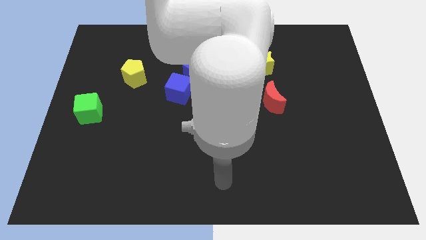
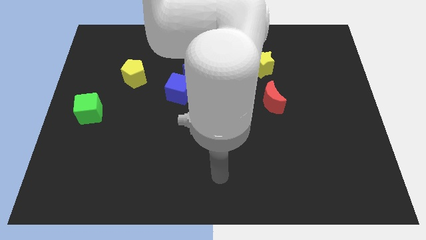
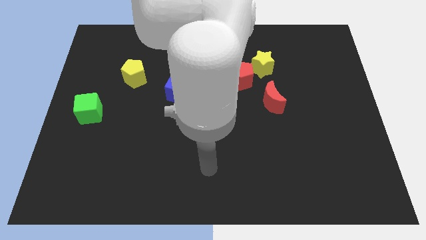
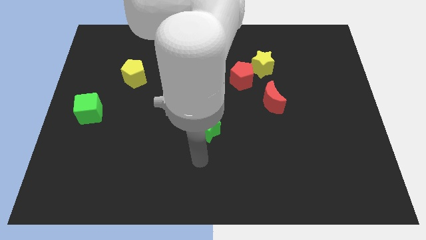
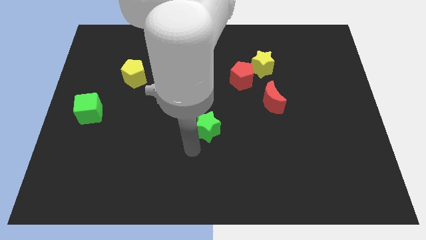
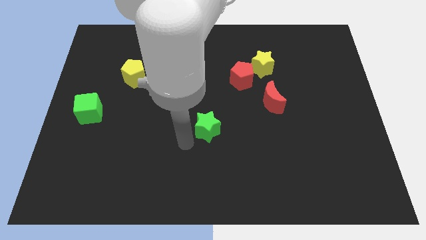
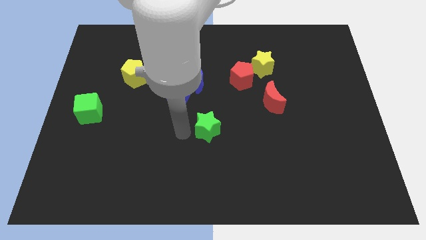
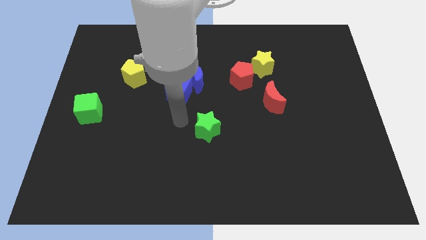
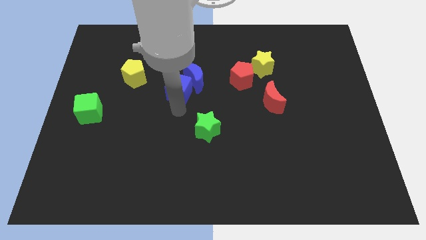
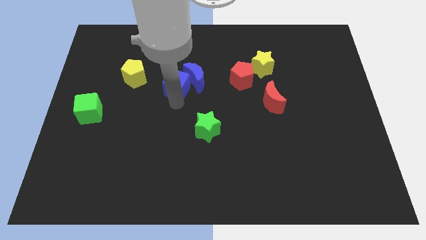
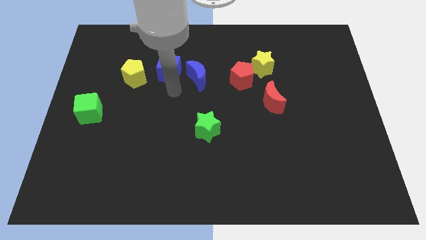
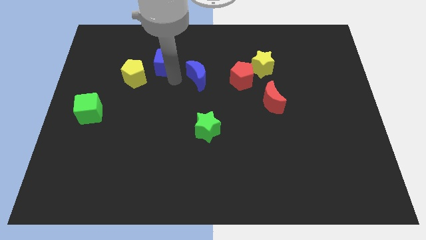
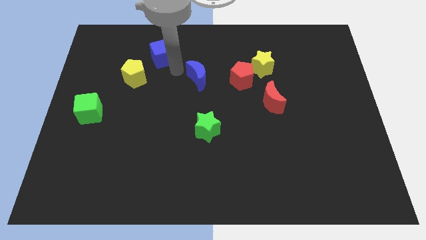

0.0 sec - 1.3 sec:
separate the blue moon from the blue cube

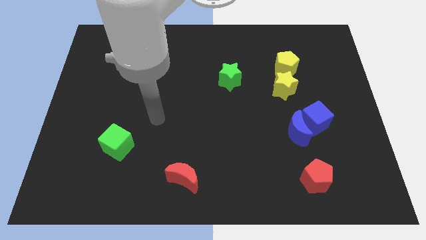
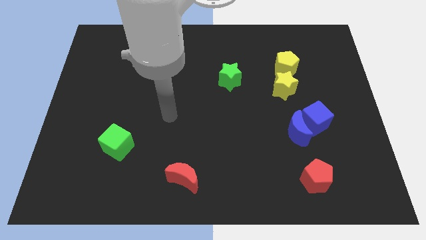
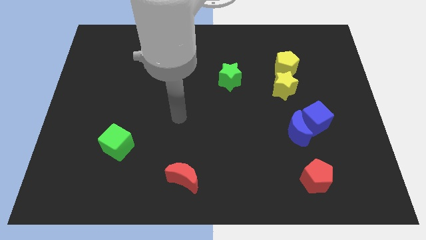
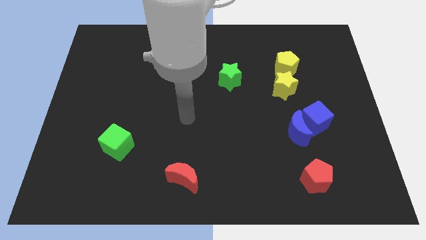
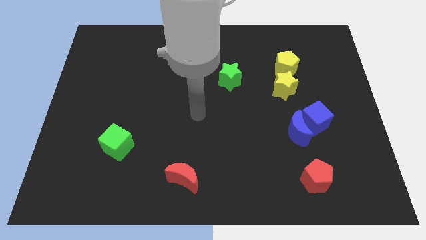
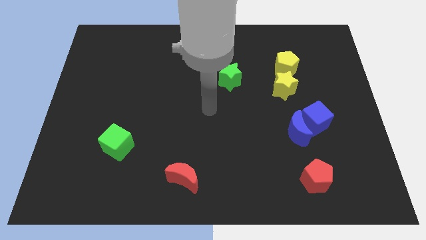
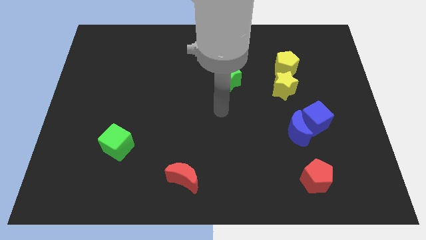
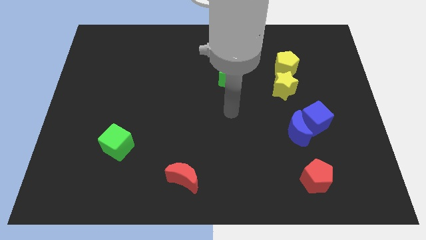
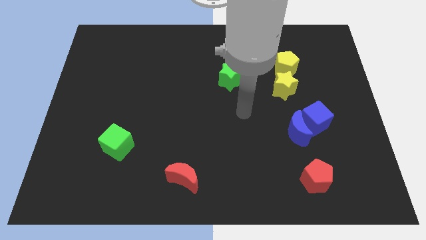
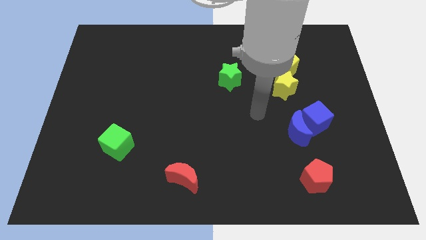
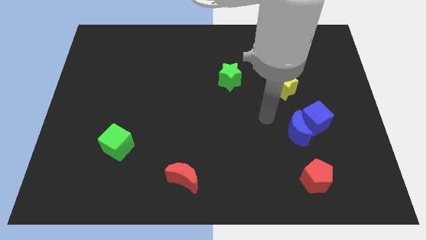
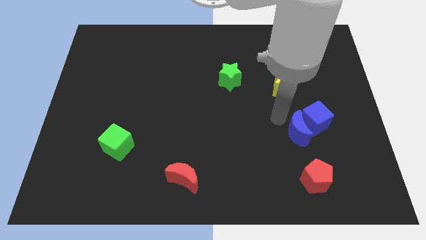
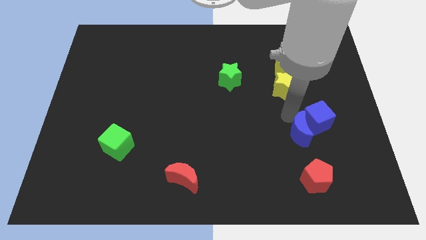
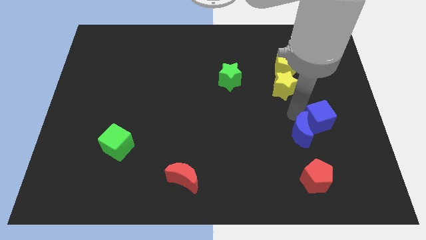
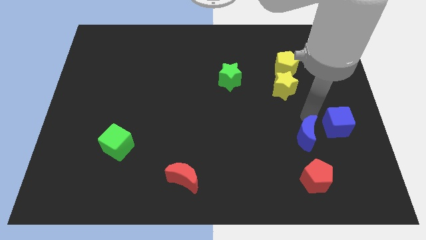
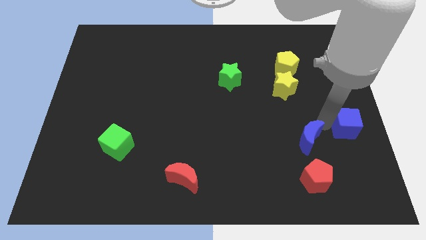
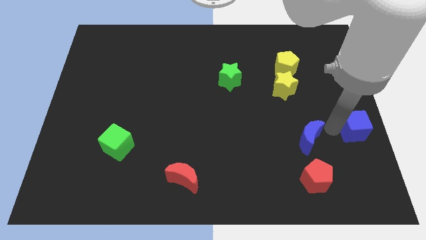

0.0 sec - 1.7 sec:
move the blue moon away from the blue cube

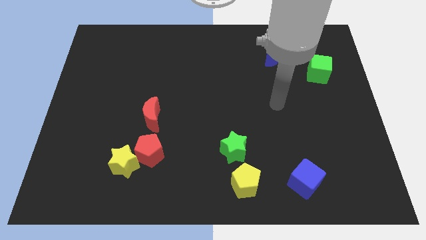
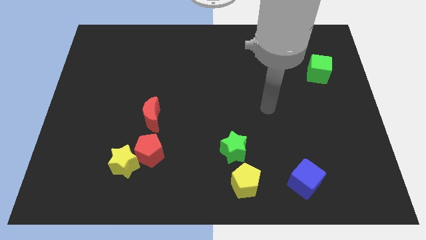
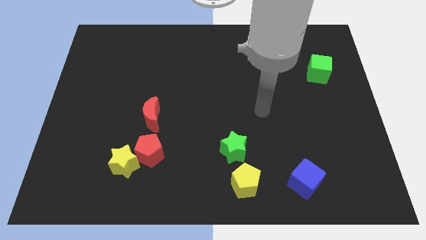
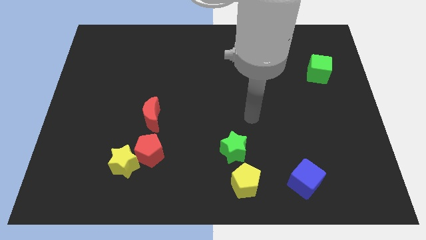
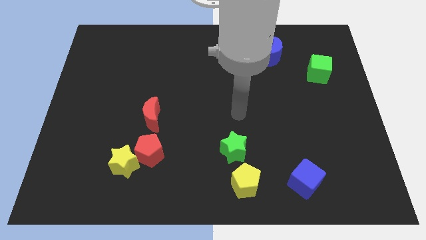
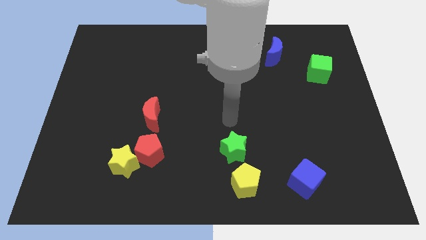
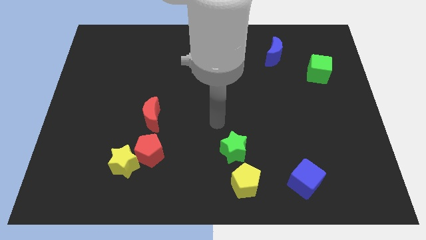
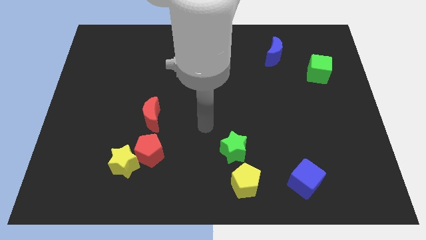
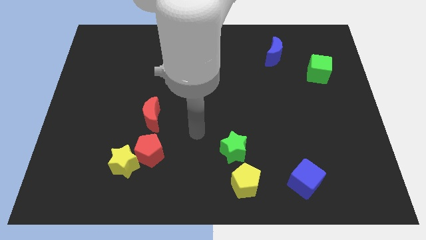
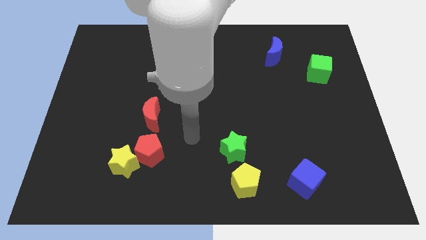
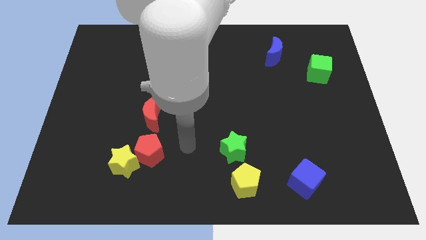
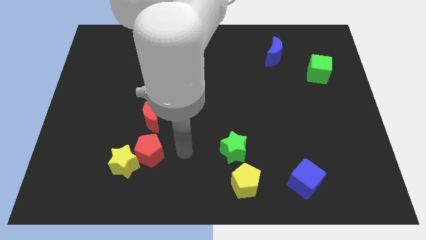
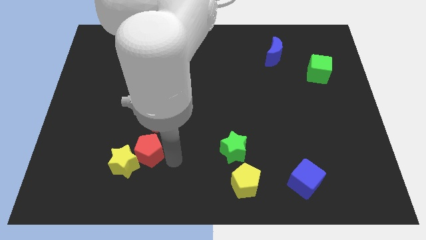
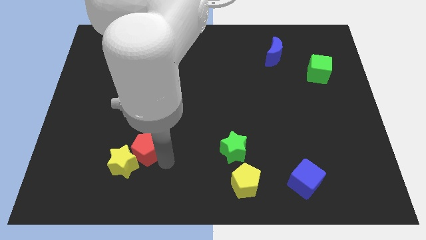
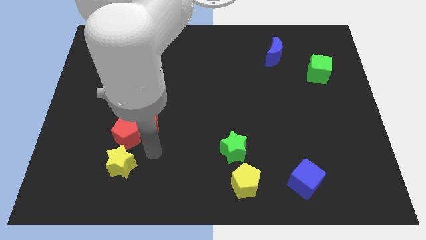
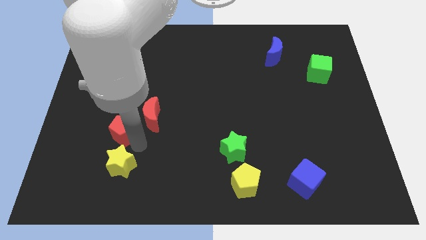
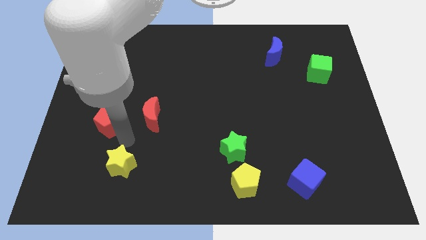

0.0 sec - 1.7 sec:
move the yellow star away from the red pentagon

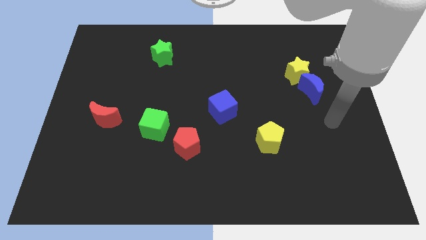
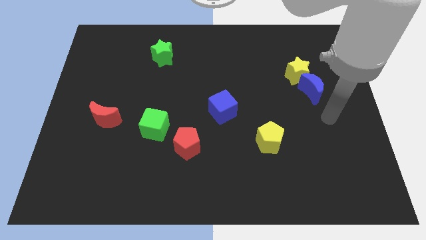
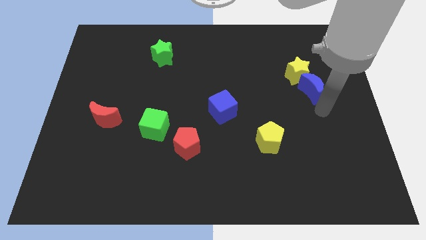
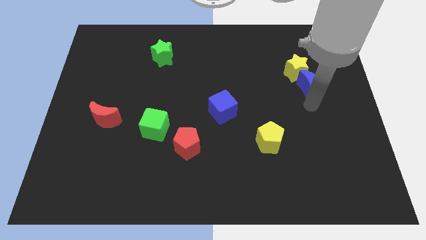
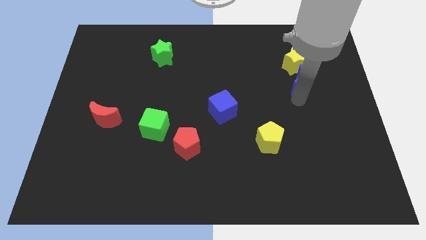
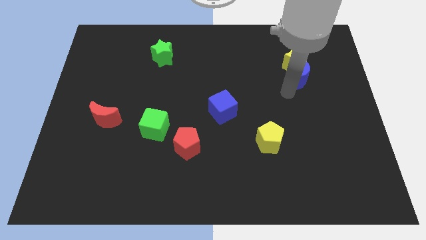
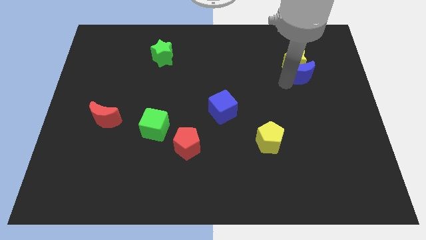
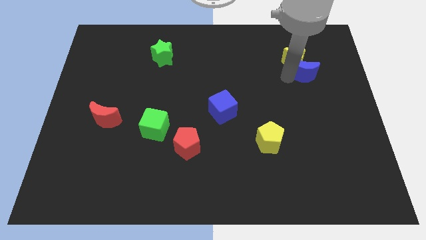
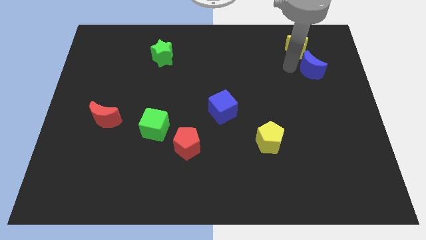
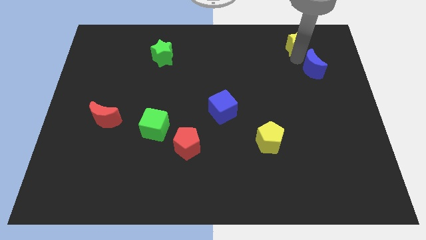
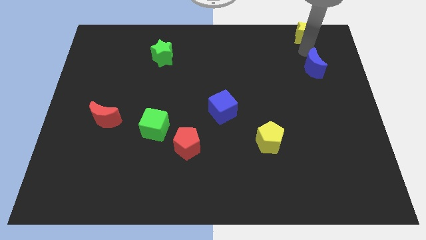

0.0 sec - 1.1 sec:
pull the blue moon apart from the yellow star

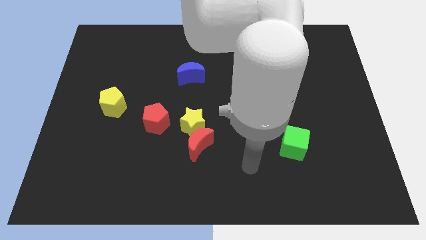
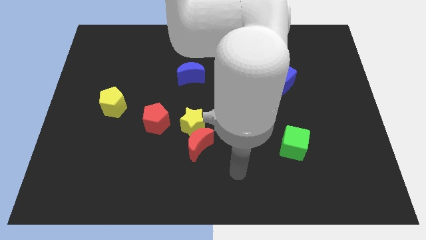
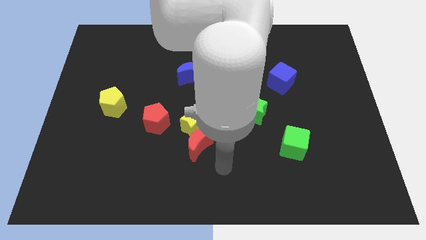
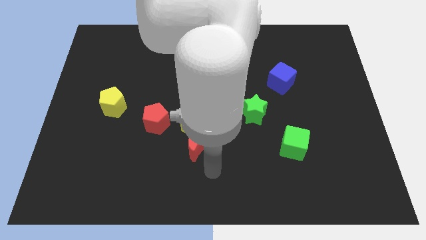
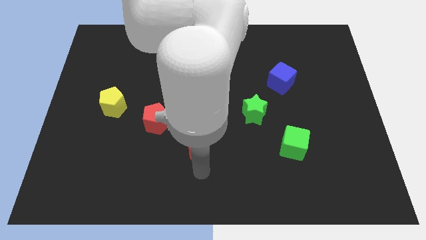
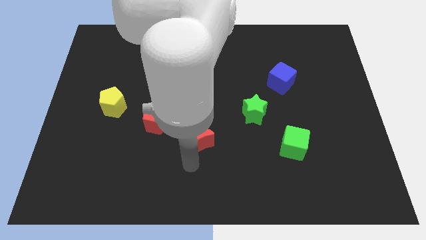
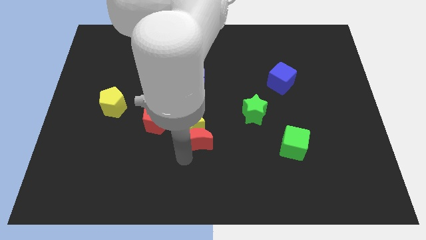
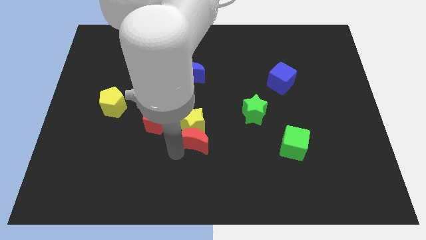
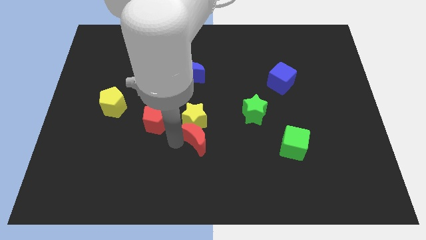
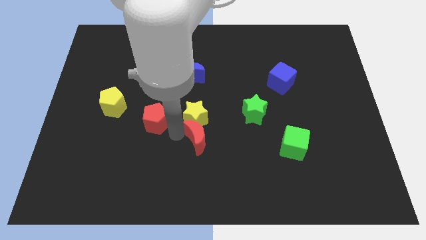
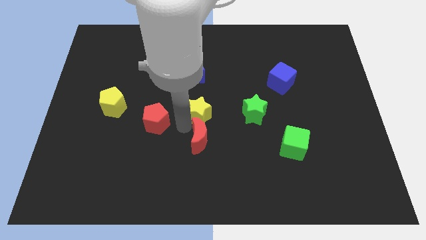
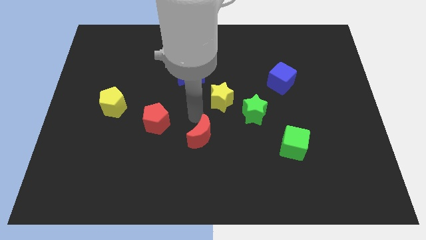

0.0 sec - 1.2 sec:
move the red moon away from the yellow star

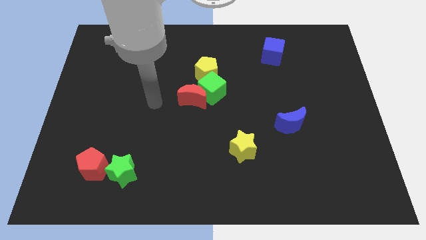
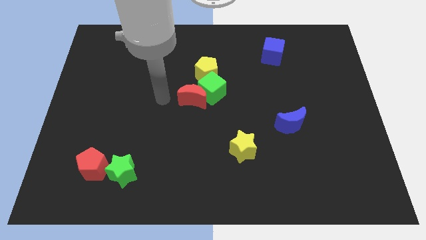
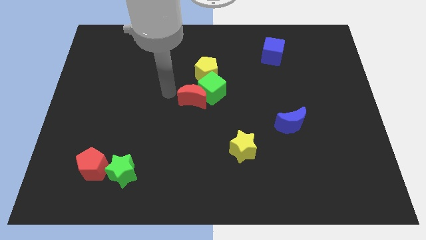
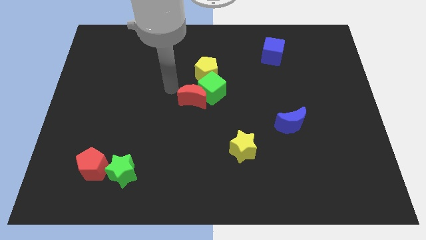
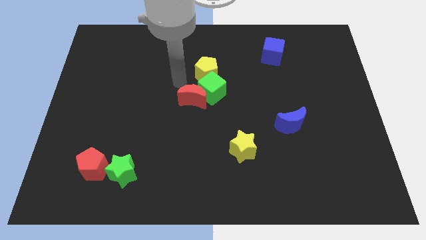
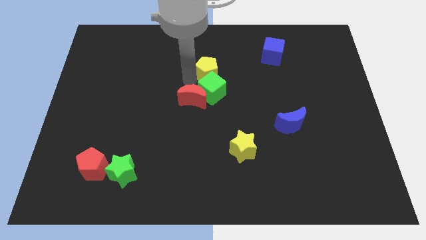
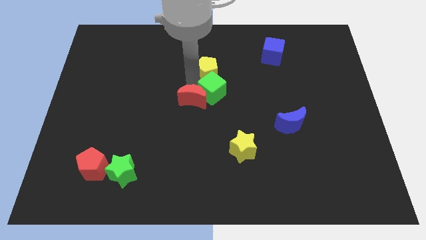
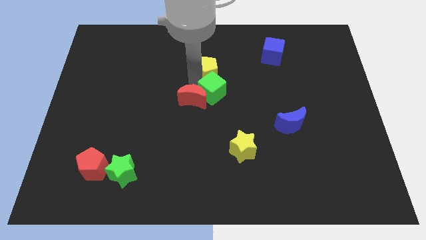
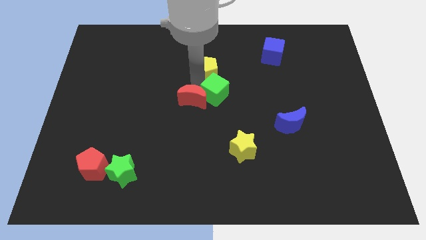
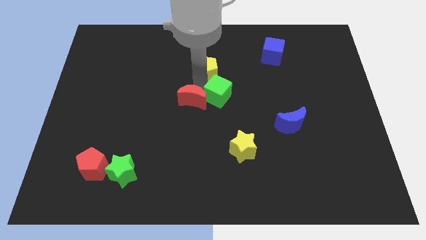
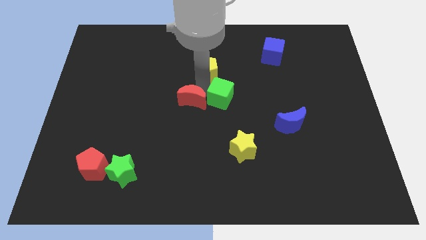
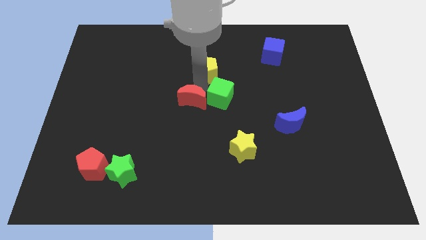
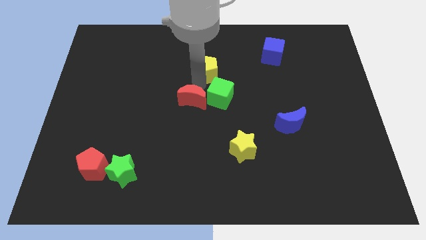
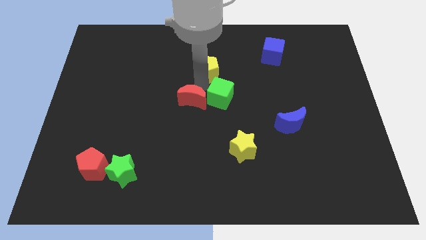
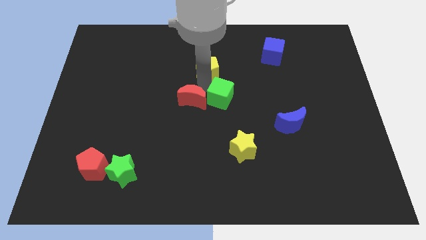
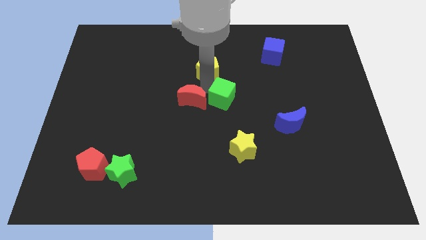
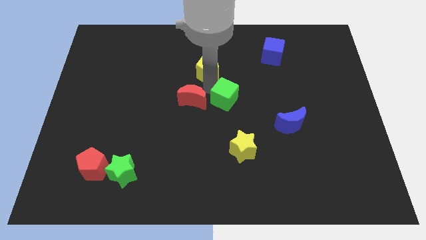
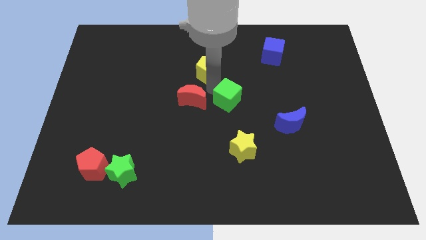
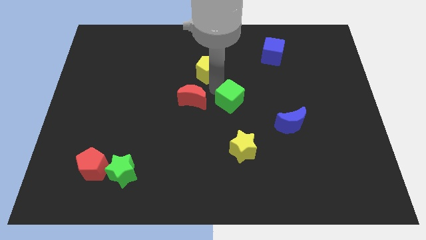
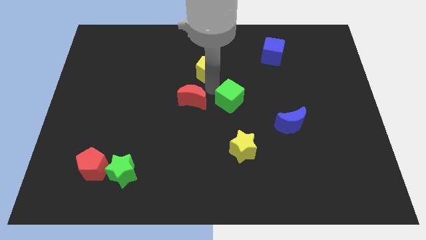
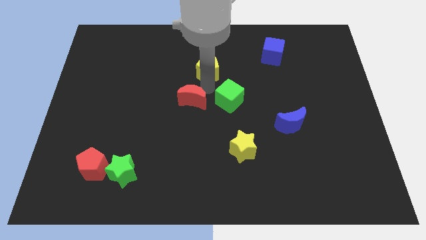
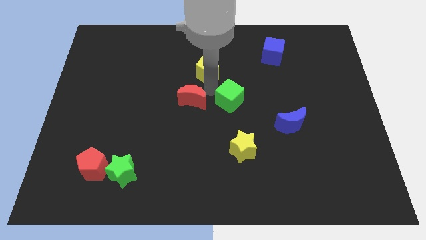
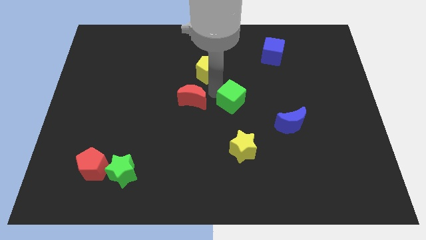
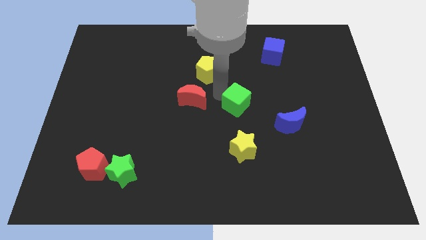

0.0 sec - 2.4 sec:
pull the green cube apart from the red moon and yellow pentagon
